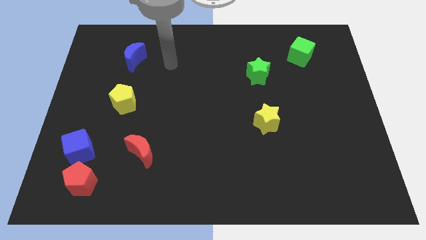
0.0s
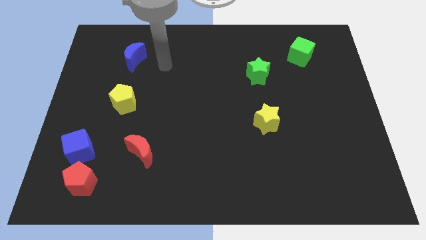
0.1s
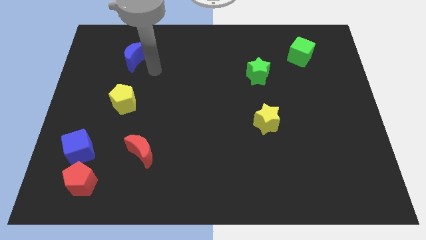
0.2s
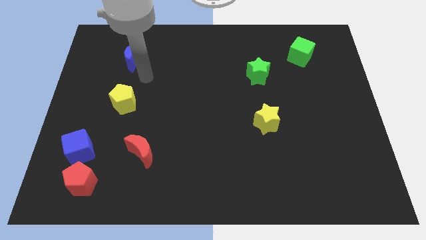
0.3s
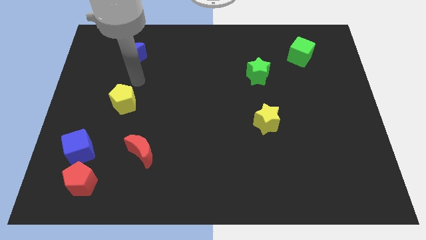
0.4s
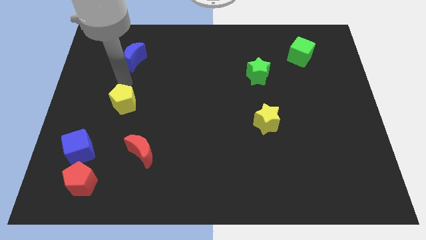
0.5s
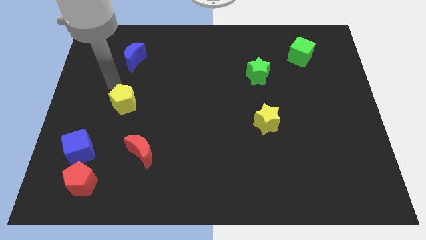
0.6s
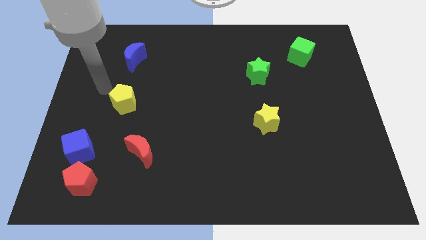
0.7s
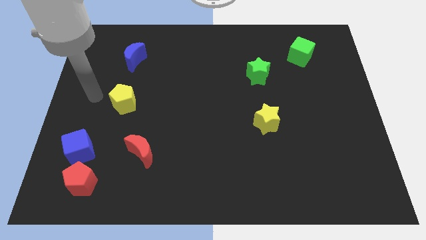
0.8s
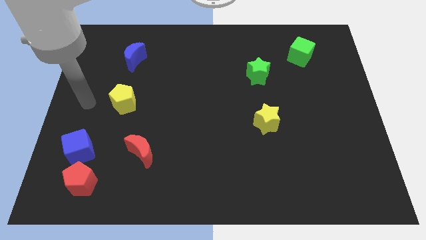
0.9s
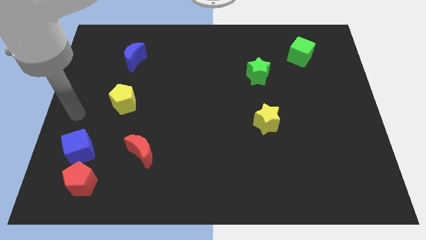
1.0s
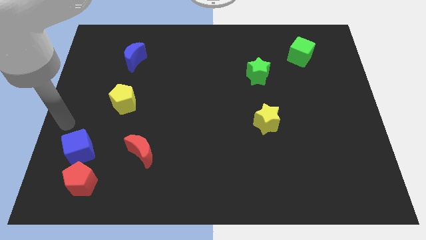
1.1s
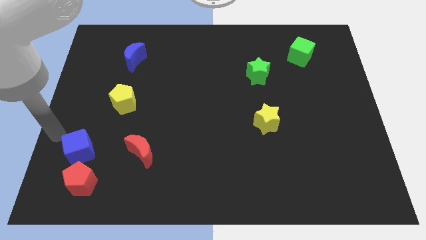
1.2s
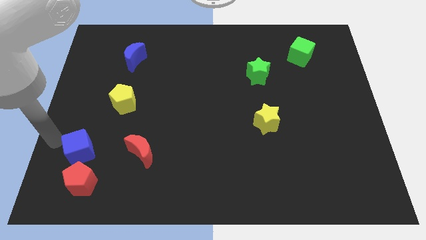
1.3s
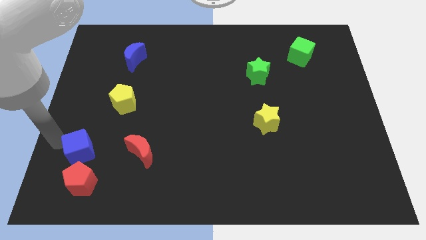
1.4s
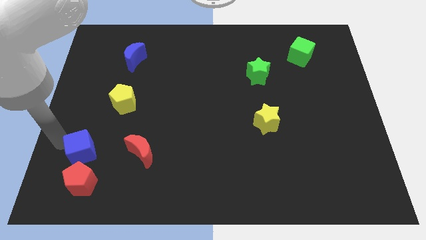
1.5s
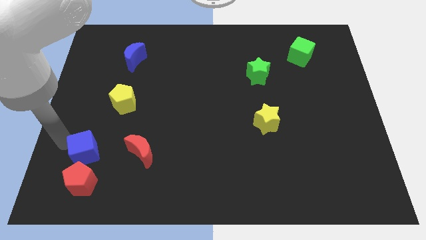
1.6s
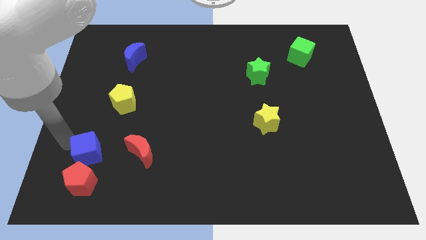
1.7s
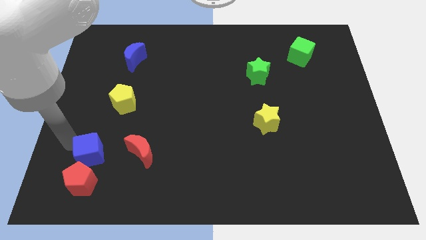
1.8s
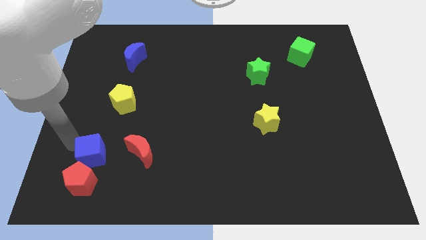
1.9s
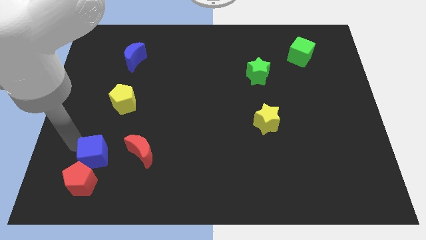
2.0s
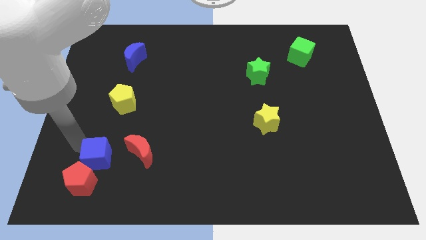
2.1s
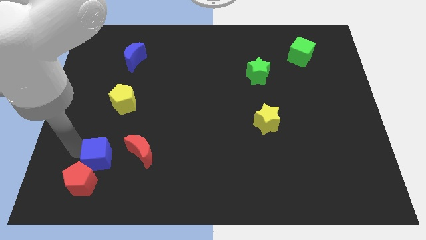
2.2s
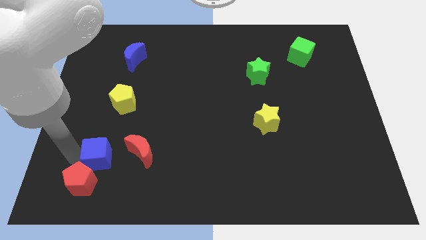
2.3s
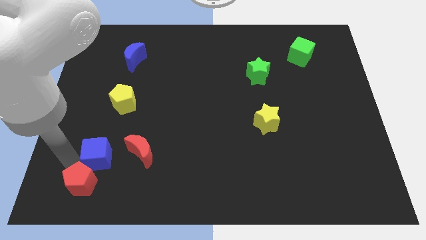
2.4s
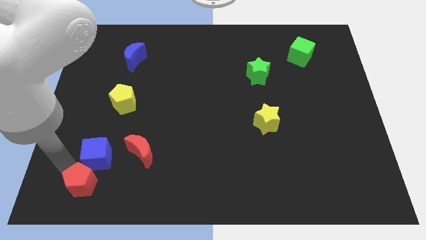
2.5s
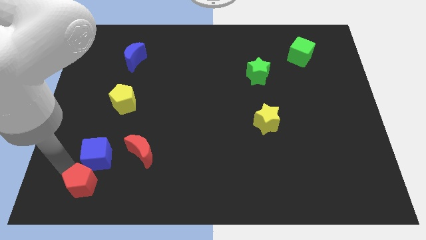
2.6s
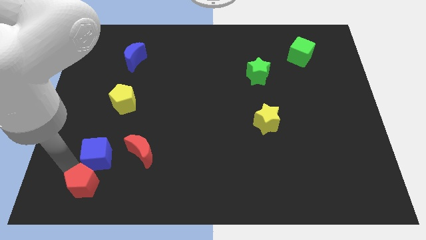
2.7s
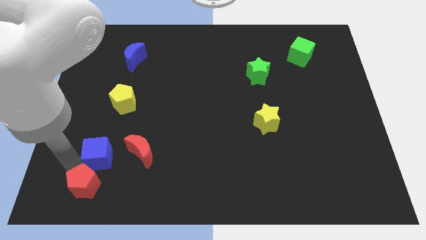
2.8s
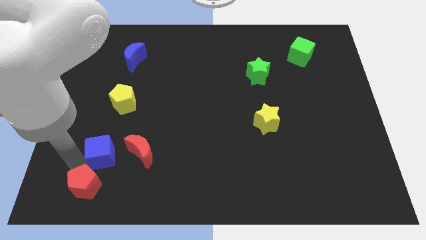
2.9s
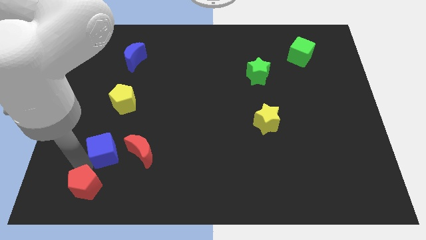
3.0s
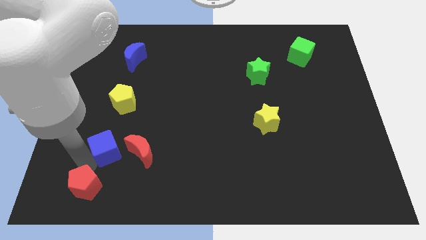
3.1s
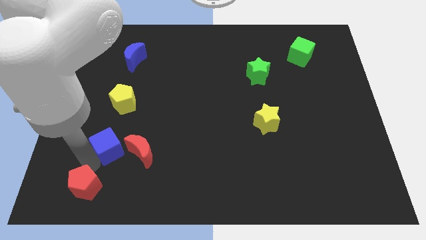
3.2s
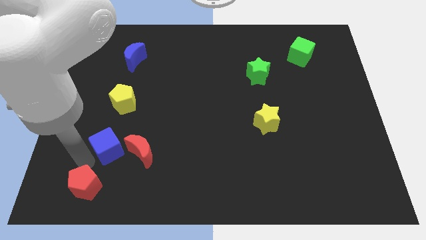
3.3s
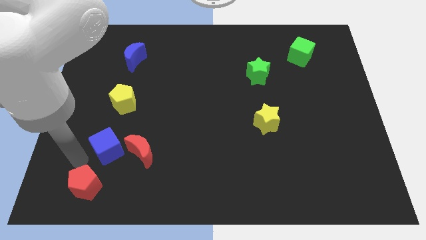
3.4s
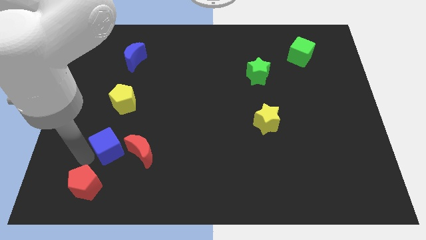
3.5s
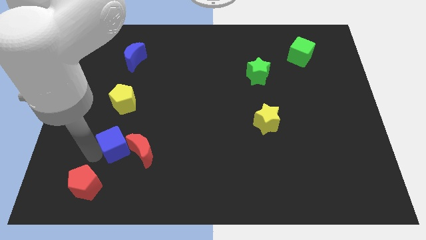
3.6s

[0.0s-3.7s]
slide the blue cube to the right a little bit

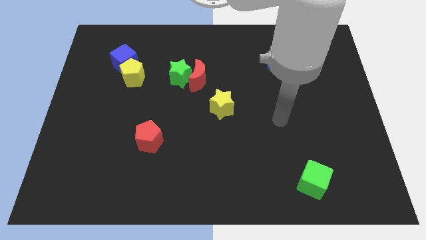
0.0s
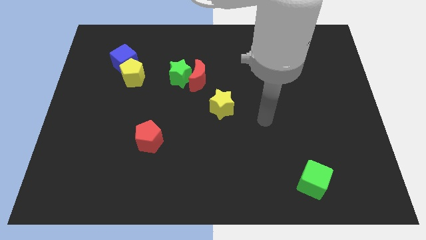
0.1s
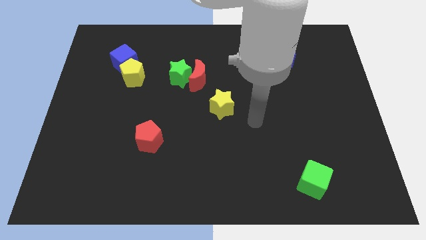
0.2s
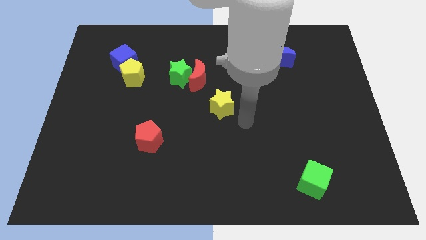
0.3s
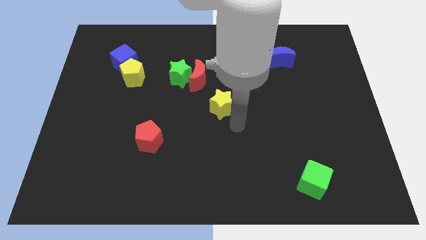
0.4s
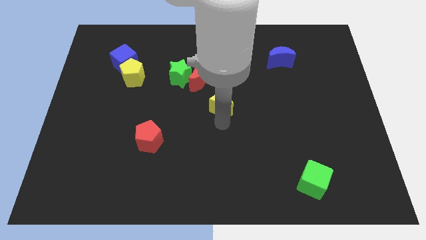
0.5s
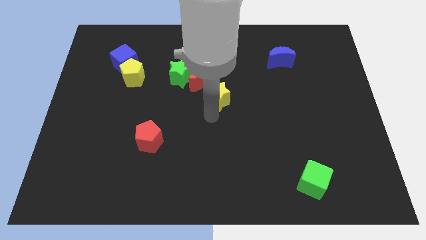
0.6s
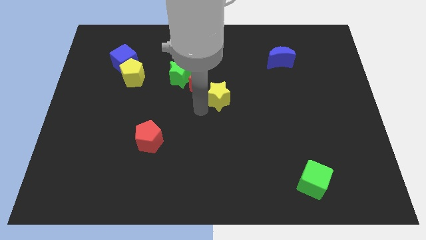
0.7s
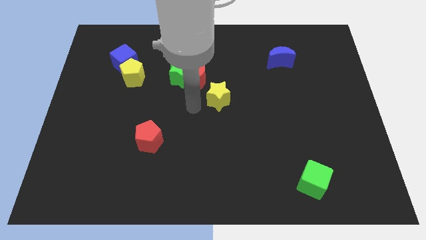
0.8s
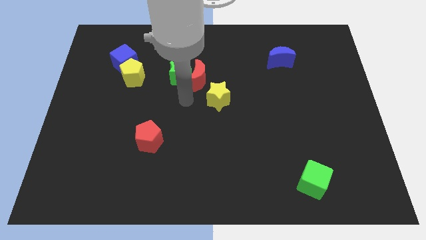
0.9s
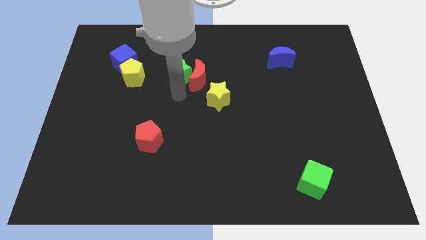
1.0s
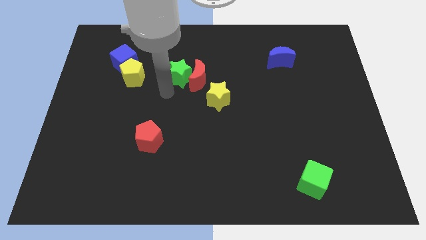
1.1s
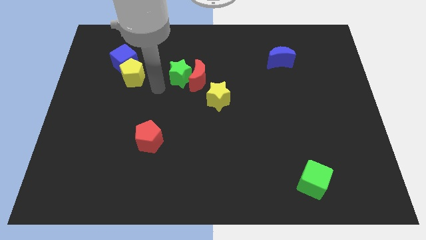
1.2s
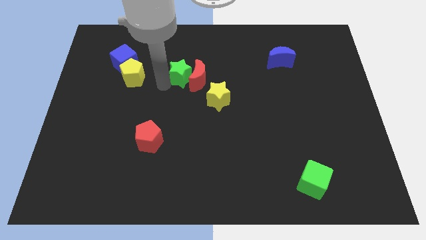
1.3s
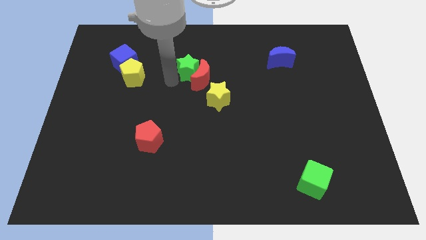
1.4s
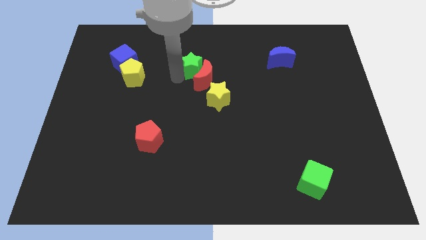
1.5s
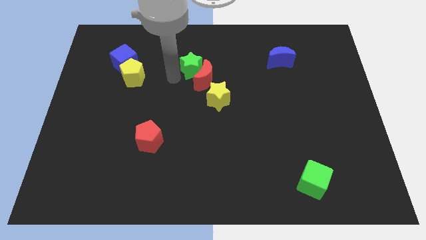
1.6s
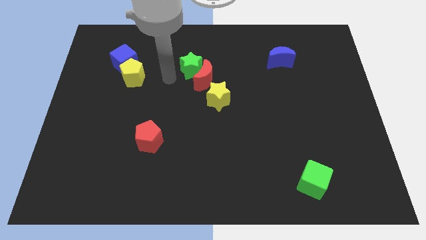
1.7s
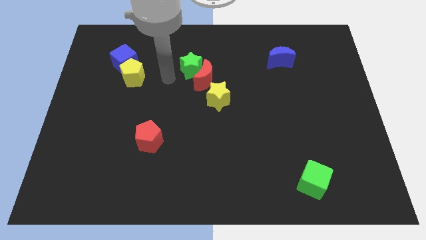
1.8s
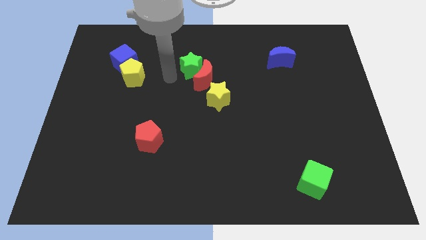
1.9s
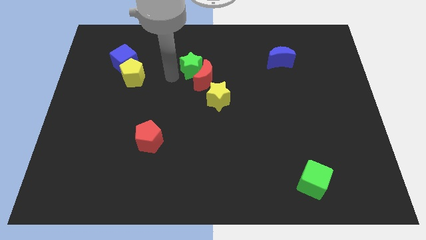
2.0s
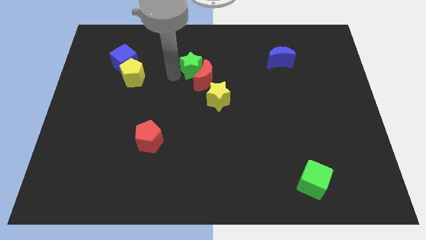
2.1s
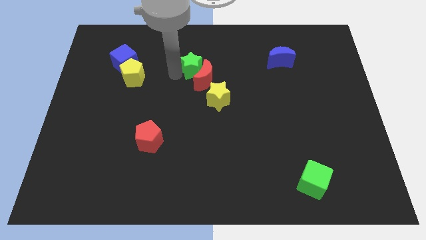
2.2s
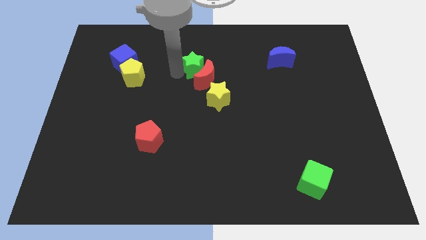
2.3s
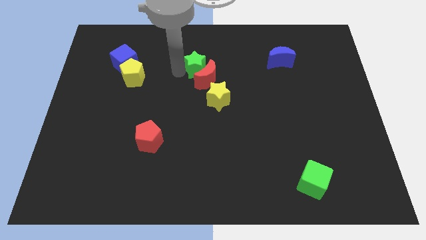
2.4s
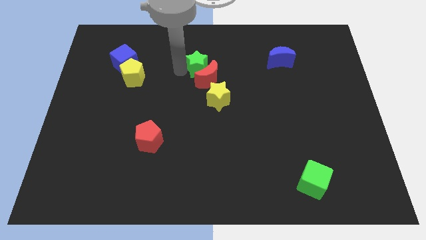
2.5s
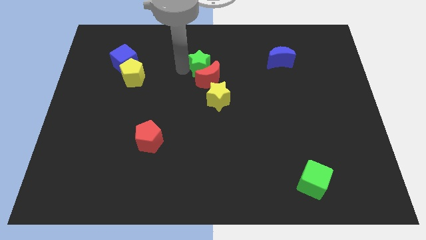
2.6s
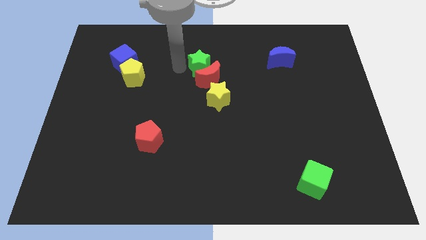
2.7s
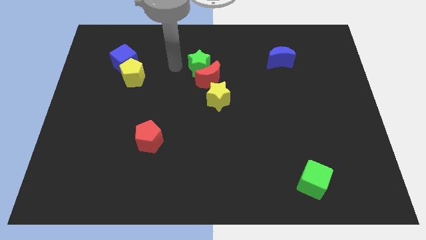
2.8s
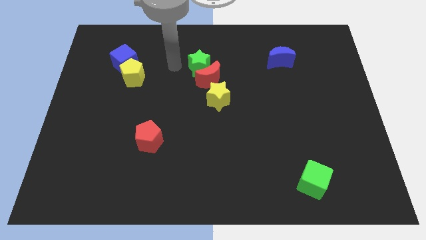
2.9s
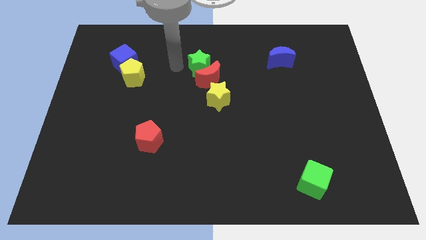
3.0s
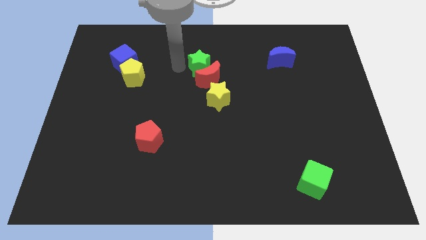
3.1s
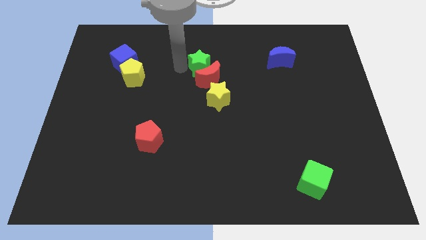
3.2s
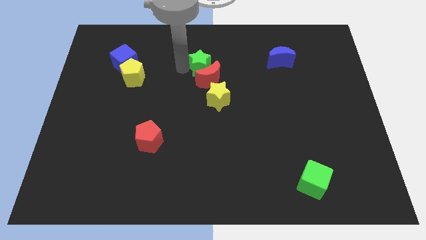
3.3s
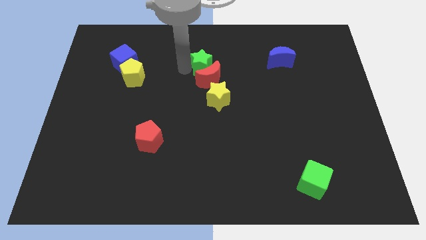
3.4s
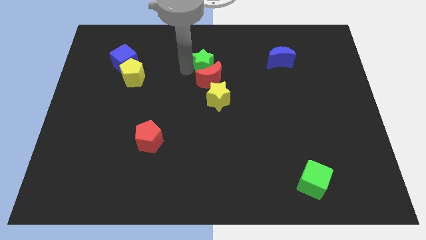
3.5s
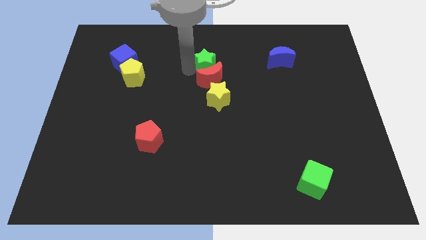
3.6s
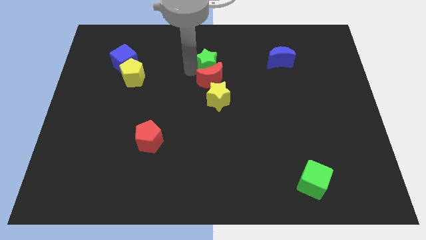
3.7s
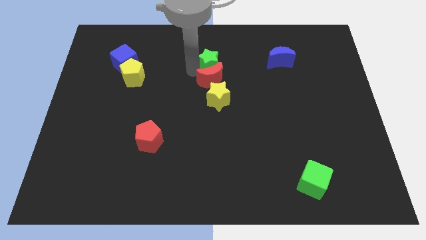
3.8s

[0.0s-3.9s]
slightly move the green star to the right

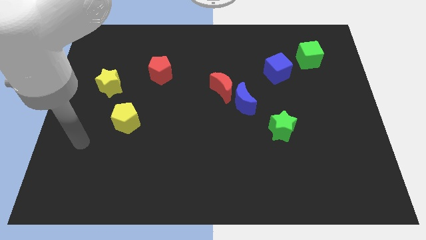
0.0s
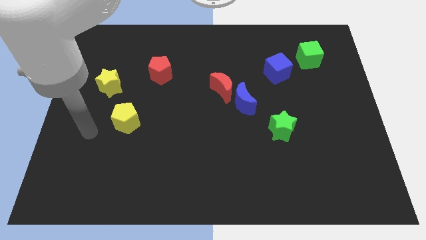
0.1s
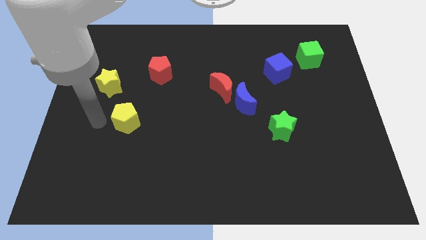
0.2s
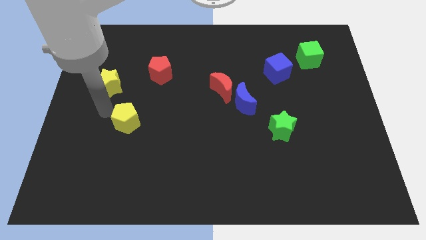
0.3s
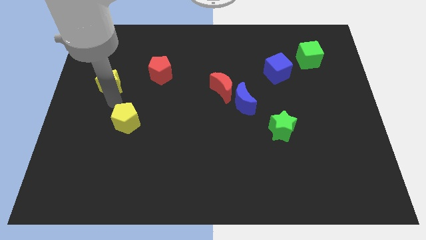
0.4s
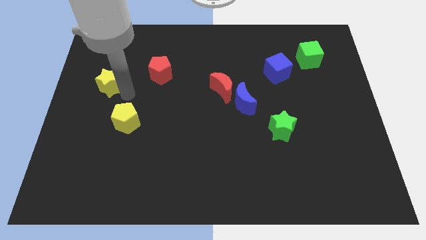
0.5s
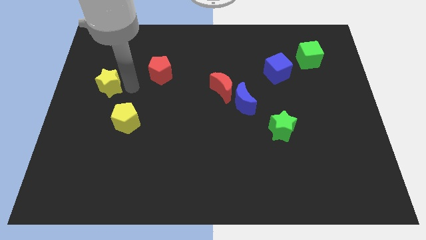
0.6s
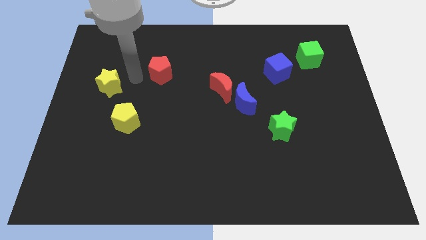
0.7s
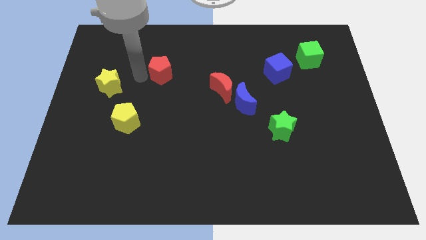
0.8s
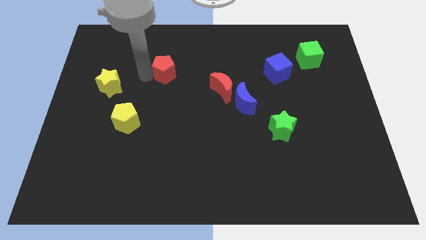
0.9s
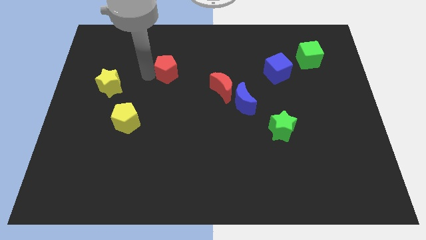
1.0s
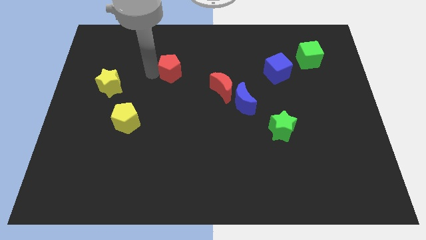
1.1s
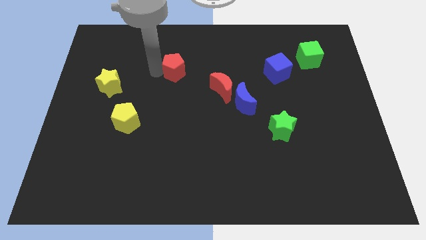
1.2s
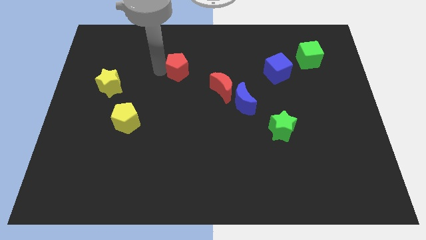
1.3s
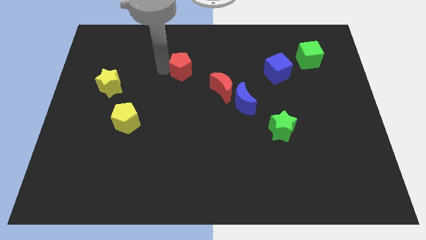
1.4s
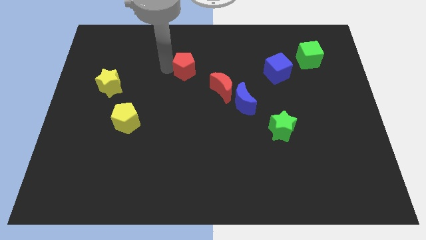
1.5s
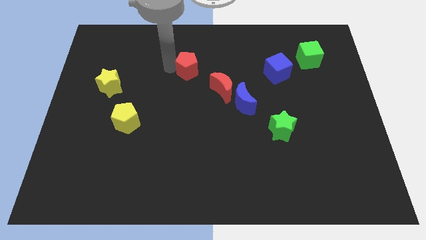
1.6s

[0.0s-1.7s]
move the red pentagon slightly to the right
